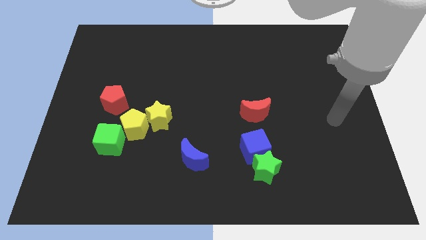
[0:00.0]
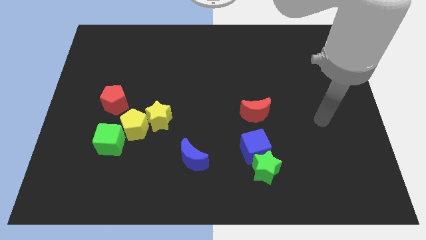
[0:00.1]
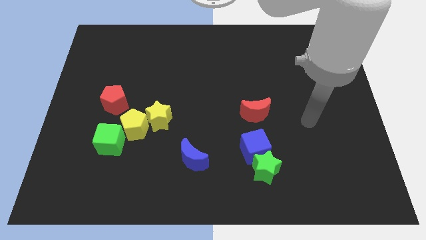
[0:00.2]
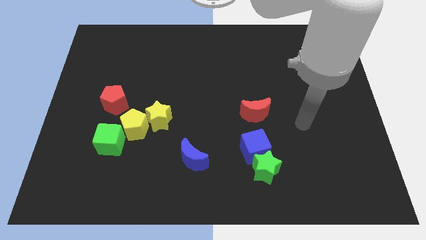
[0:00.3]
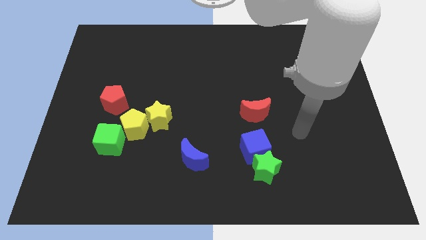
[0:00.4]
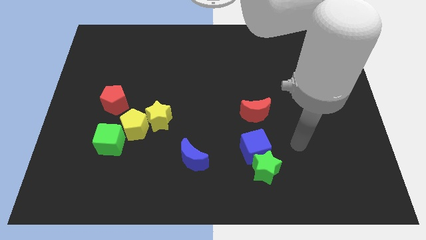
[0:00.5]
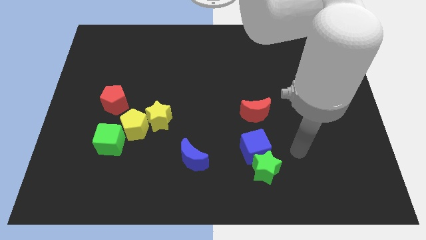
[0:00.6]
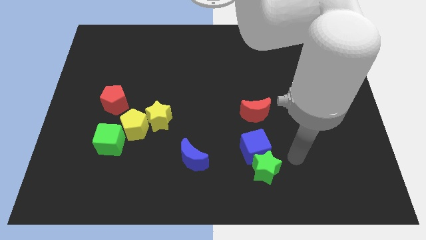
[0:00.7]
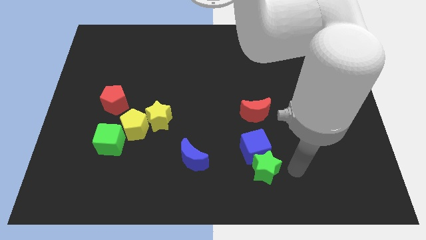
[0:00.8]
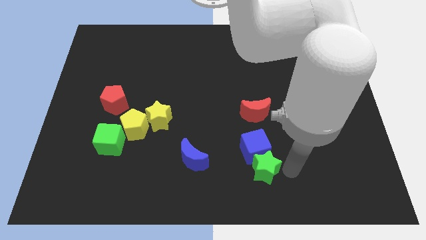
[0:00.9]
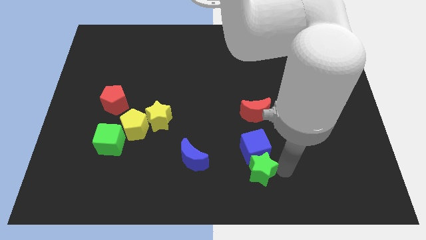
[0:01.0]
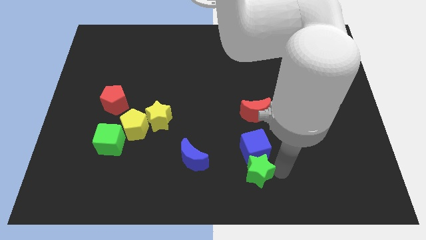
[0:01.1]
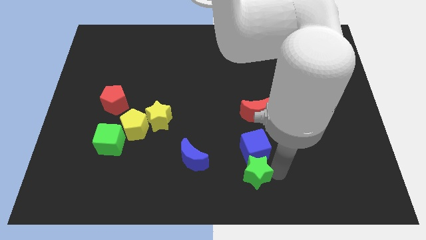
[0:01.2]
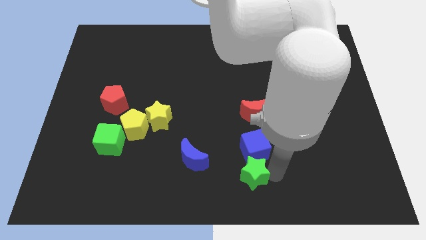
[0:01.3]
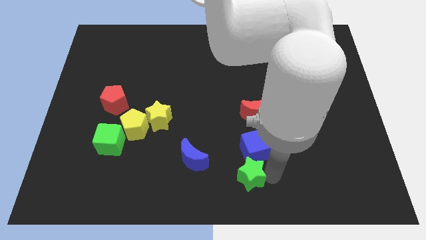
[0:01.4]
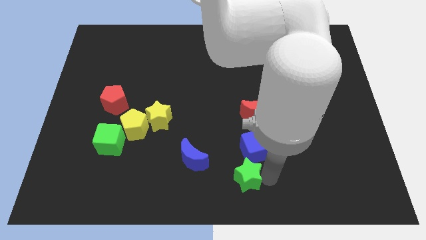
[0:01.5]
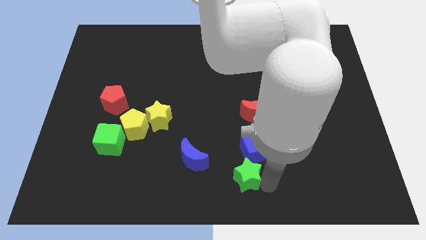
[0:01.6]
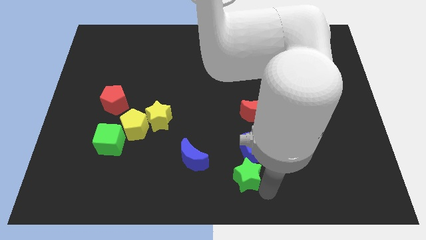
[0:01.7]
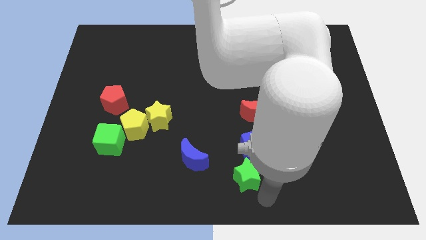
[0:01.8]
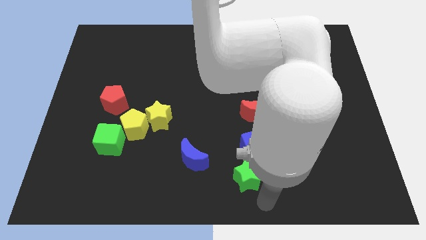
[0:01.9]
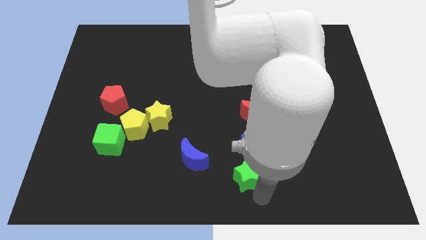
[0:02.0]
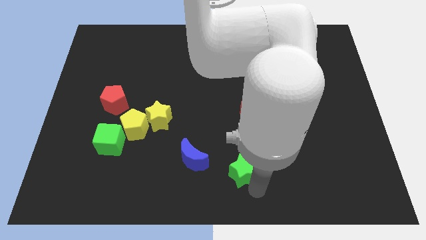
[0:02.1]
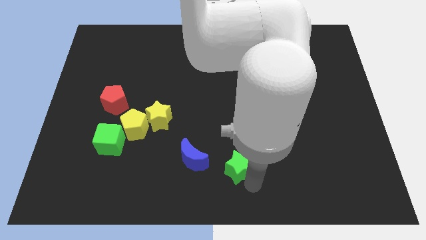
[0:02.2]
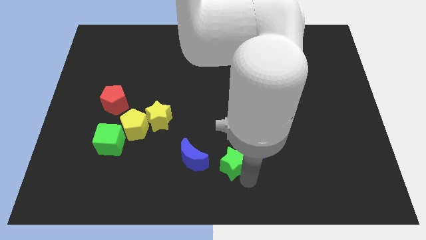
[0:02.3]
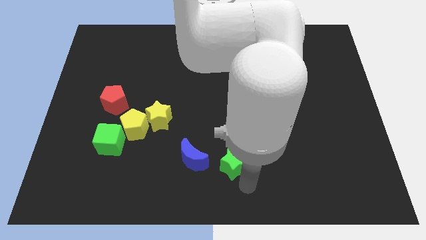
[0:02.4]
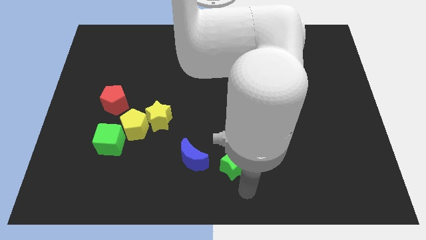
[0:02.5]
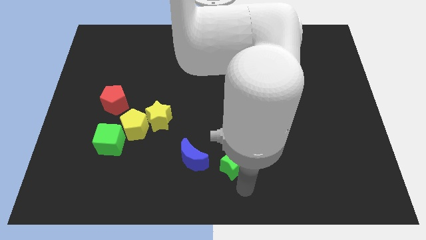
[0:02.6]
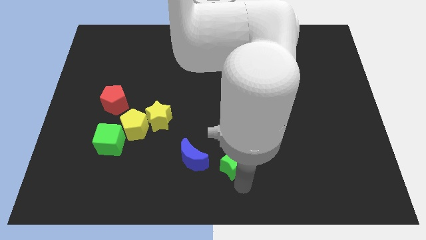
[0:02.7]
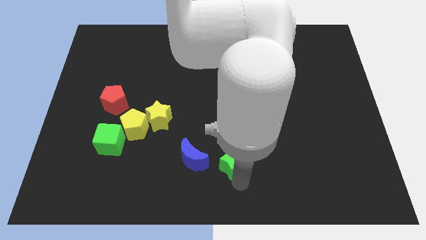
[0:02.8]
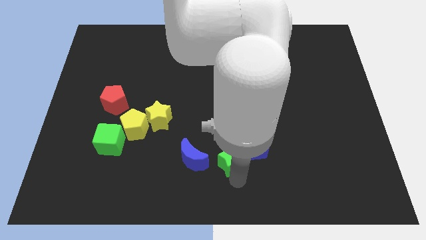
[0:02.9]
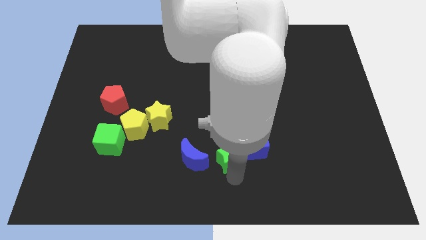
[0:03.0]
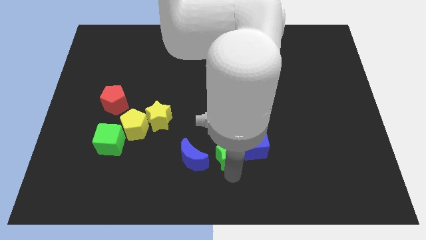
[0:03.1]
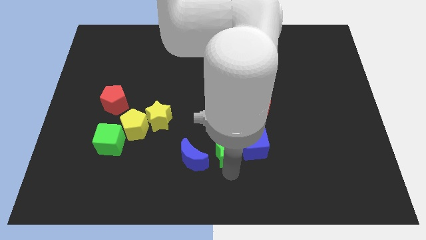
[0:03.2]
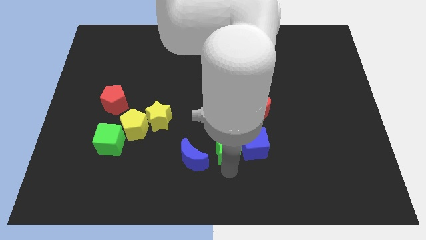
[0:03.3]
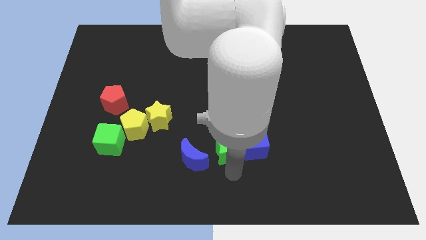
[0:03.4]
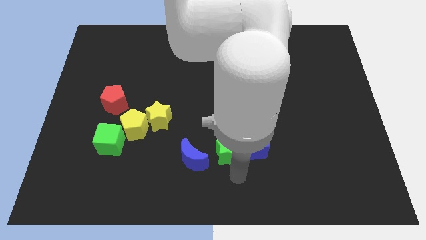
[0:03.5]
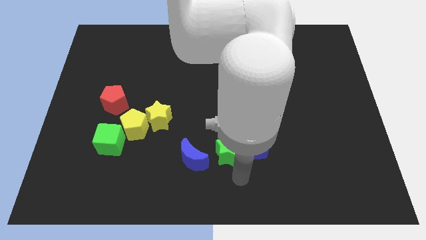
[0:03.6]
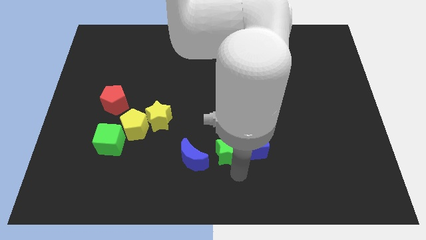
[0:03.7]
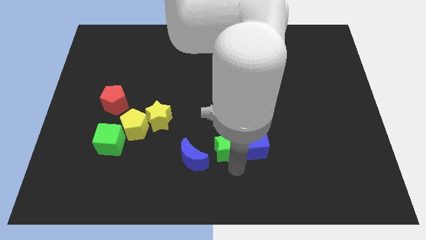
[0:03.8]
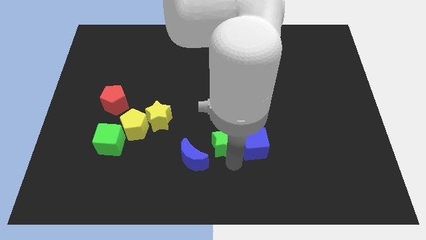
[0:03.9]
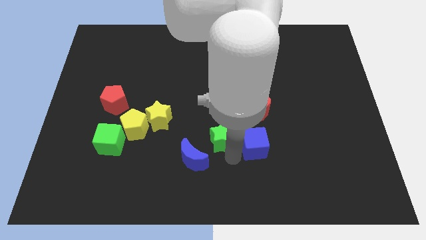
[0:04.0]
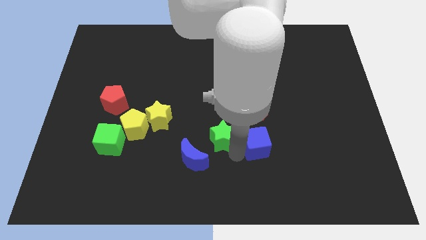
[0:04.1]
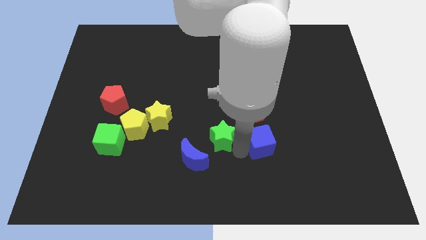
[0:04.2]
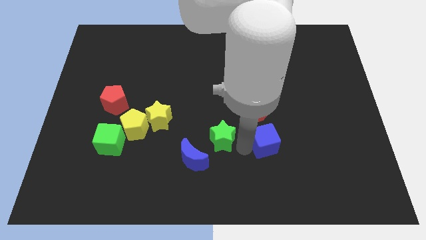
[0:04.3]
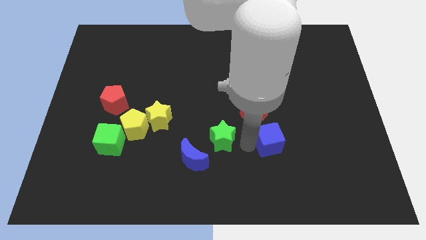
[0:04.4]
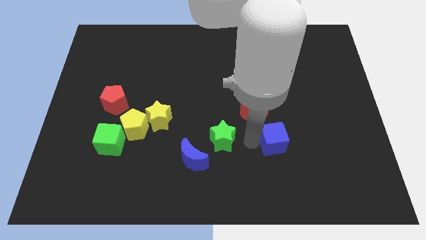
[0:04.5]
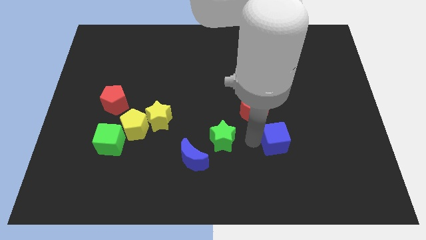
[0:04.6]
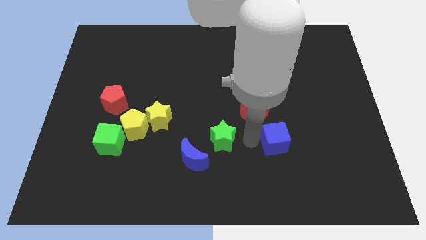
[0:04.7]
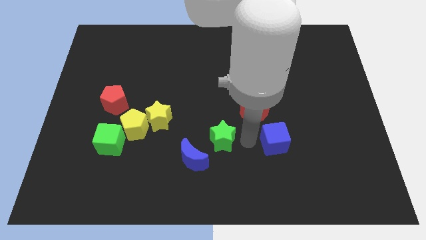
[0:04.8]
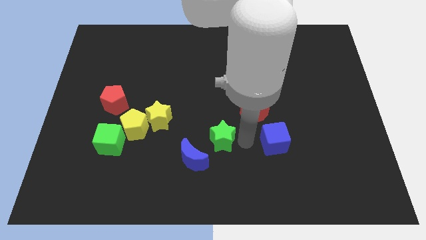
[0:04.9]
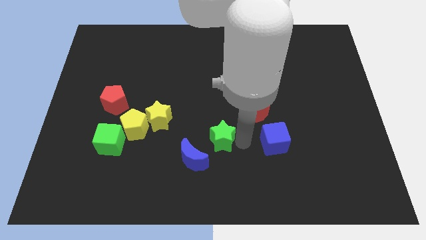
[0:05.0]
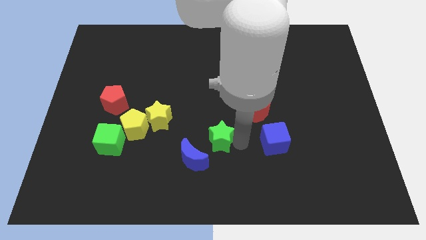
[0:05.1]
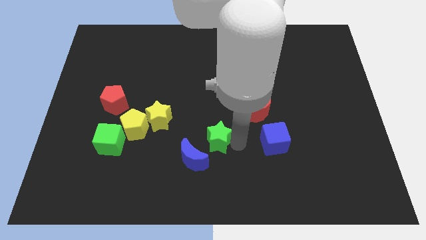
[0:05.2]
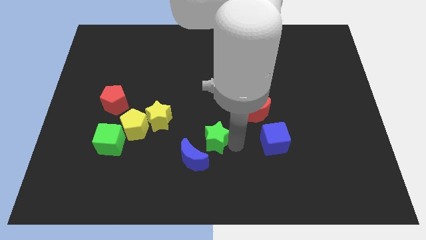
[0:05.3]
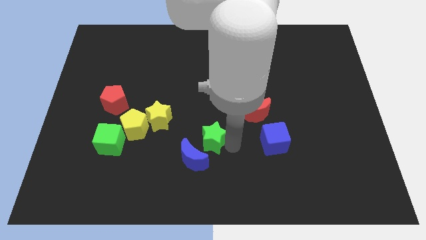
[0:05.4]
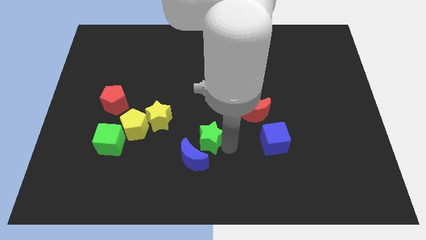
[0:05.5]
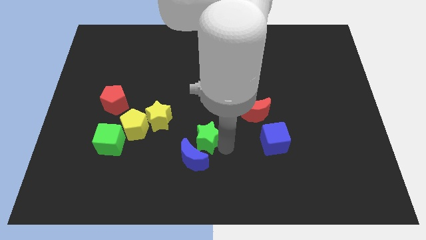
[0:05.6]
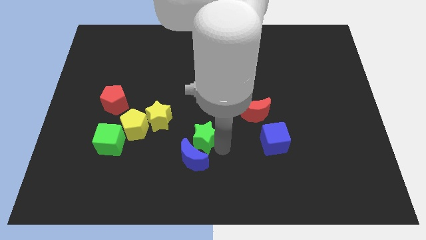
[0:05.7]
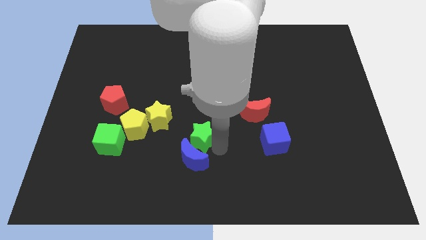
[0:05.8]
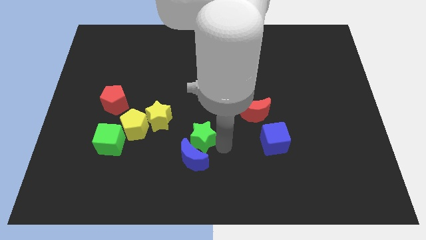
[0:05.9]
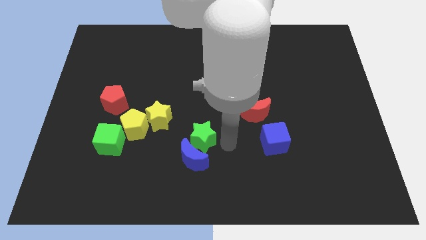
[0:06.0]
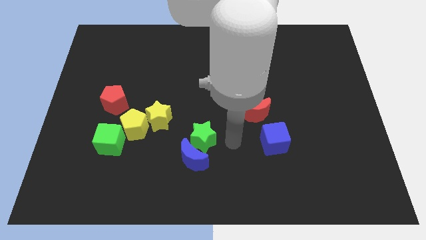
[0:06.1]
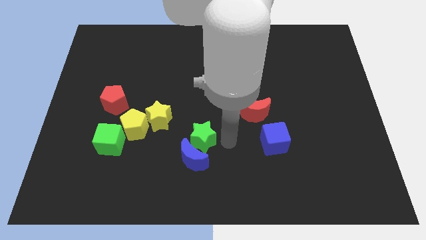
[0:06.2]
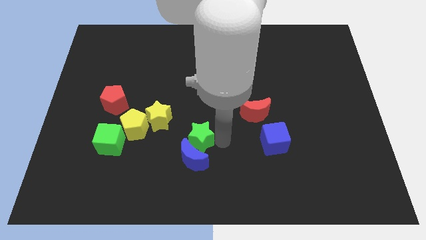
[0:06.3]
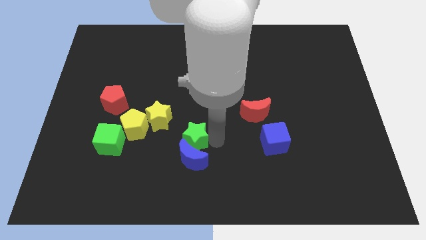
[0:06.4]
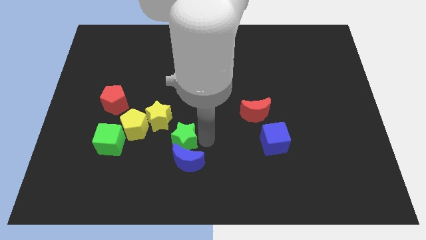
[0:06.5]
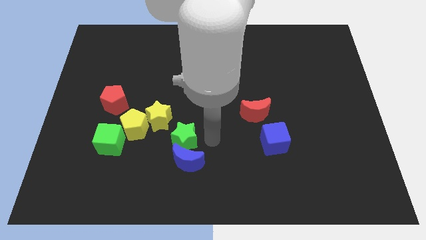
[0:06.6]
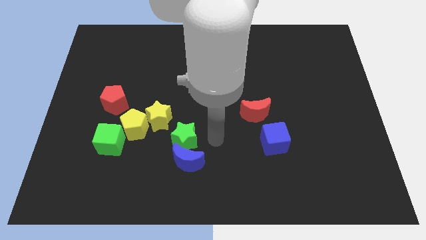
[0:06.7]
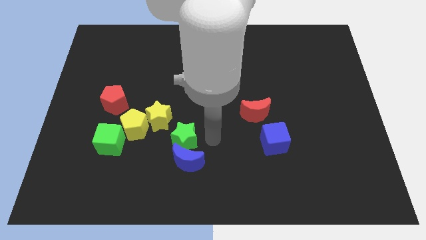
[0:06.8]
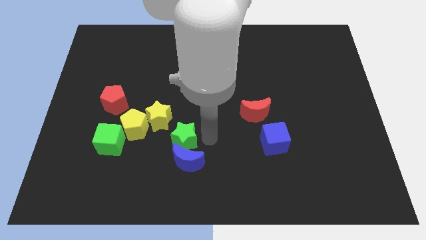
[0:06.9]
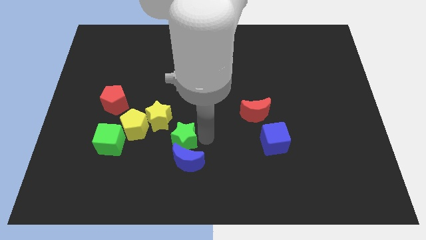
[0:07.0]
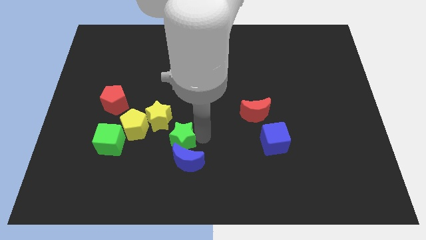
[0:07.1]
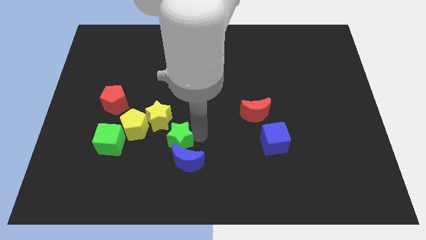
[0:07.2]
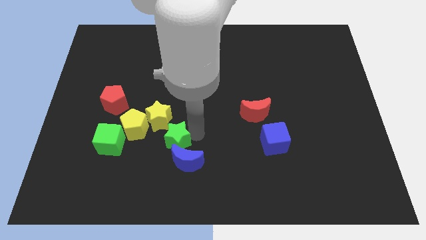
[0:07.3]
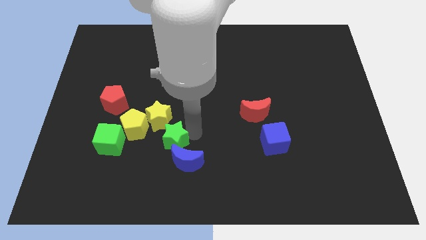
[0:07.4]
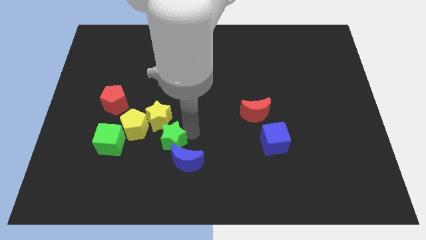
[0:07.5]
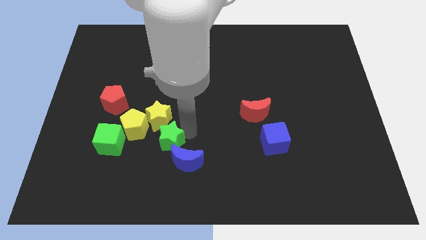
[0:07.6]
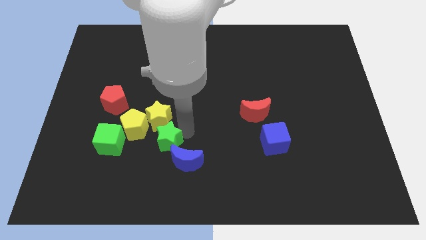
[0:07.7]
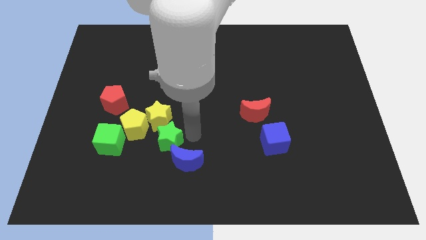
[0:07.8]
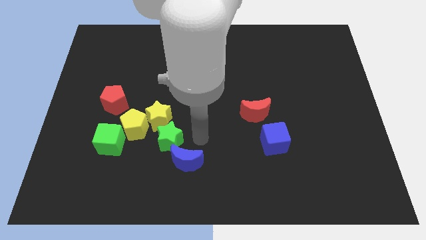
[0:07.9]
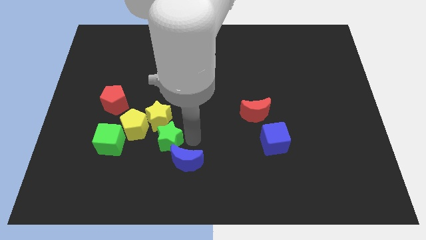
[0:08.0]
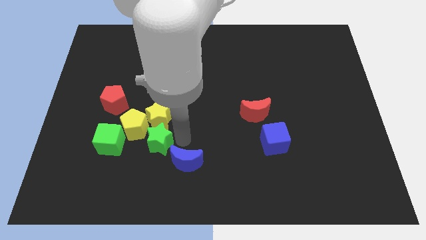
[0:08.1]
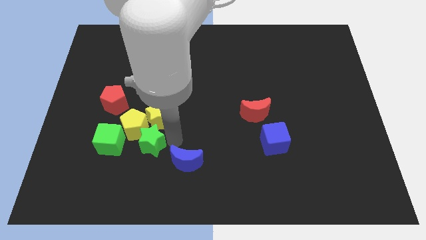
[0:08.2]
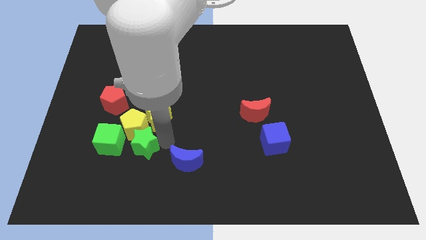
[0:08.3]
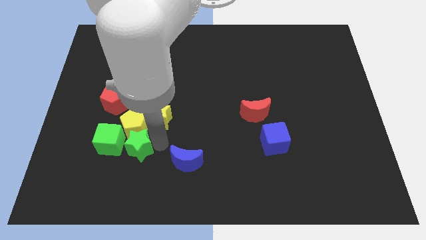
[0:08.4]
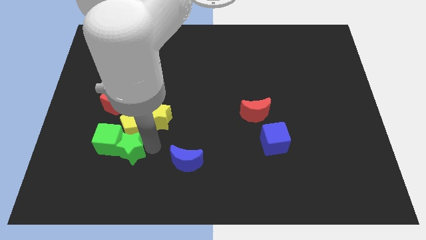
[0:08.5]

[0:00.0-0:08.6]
put the green star to the green cube
